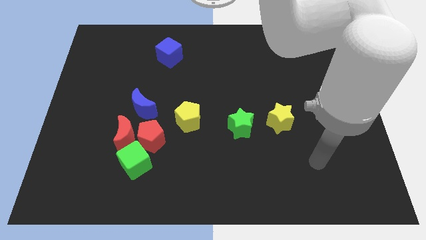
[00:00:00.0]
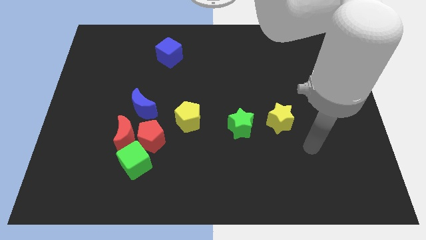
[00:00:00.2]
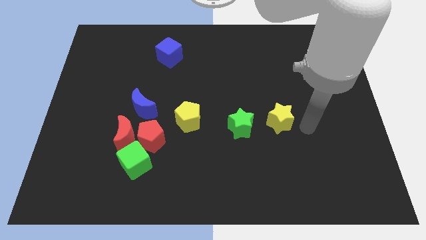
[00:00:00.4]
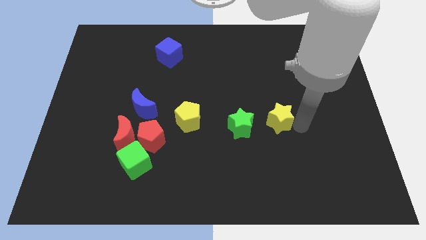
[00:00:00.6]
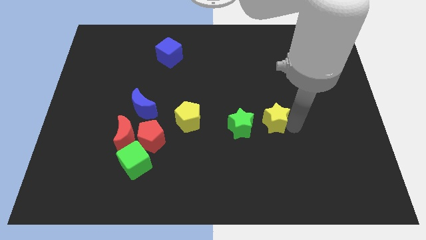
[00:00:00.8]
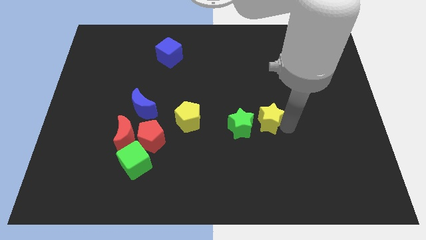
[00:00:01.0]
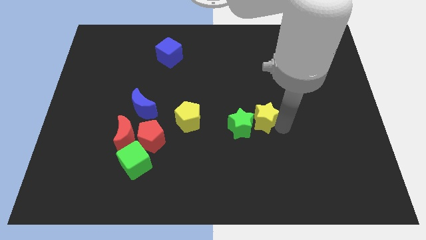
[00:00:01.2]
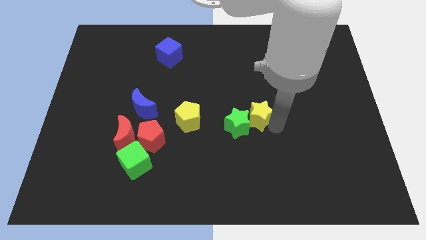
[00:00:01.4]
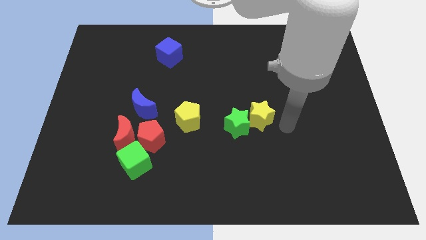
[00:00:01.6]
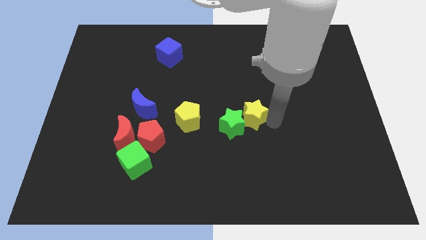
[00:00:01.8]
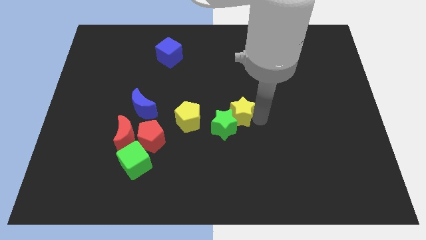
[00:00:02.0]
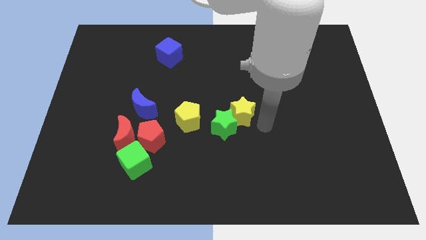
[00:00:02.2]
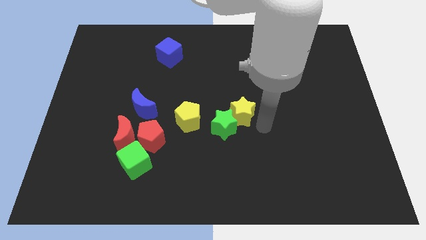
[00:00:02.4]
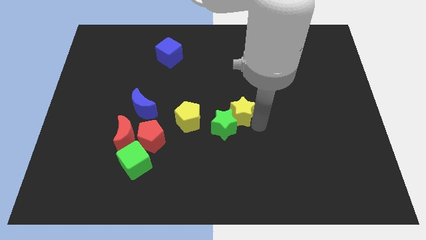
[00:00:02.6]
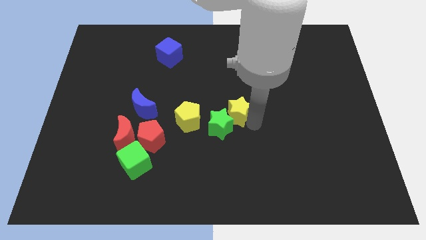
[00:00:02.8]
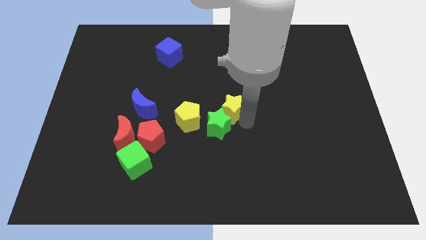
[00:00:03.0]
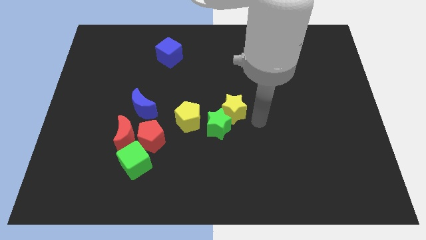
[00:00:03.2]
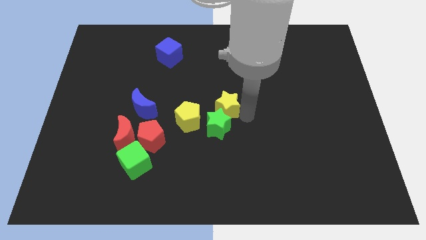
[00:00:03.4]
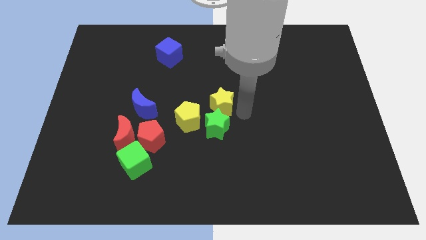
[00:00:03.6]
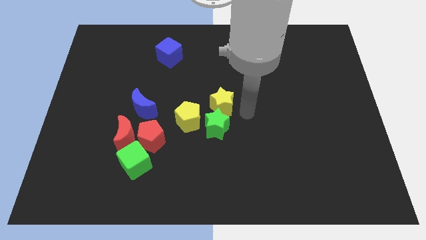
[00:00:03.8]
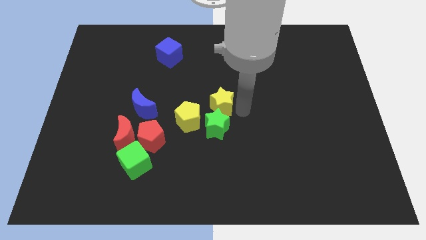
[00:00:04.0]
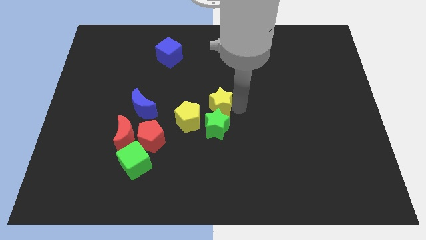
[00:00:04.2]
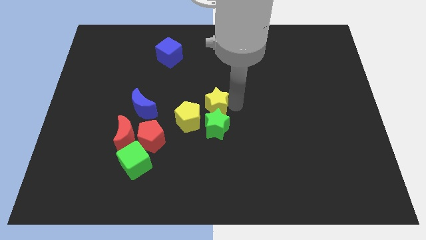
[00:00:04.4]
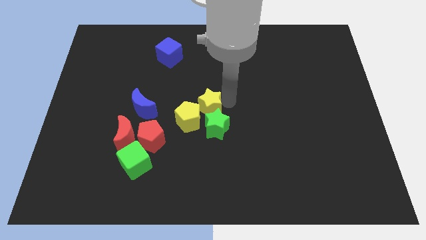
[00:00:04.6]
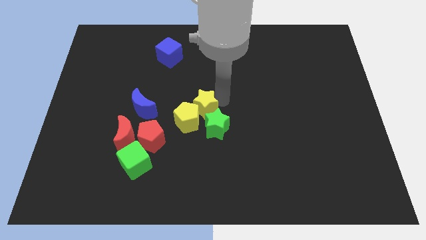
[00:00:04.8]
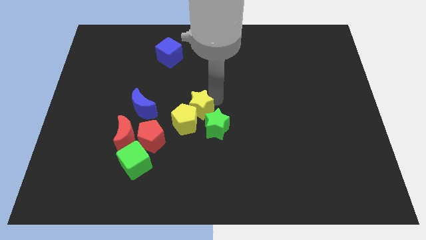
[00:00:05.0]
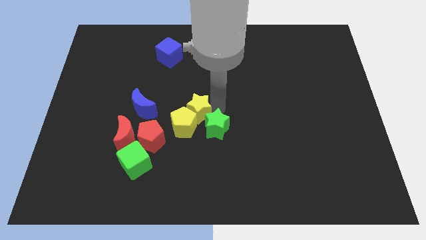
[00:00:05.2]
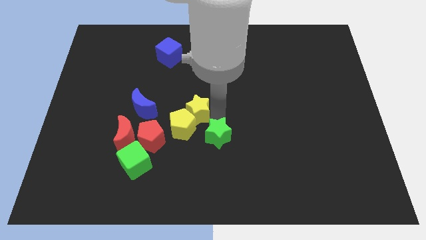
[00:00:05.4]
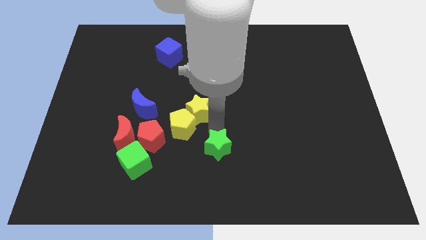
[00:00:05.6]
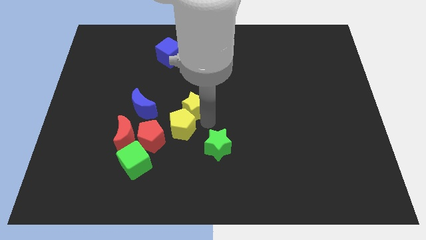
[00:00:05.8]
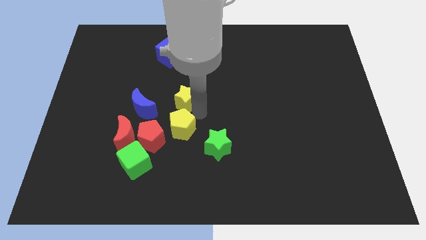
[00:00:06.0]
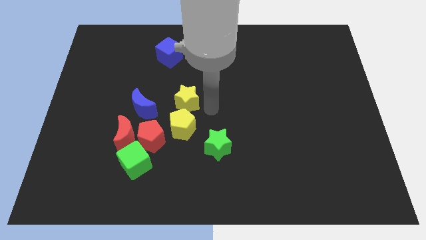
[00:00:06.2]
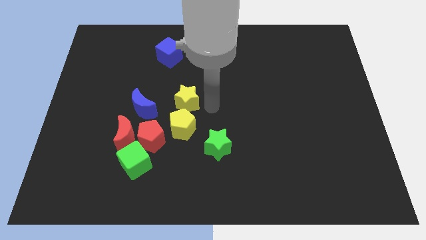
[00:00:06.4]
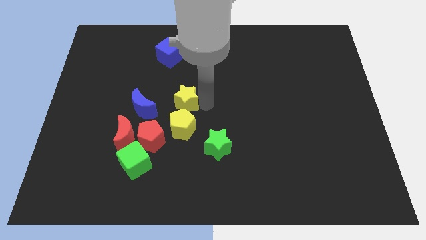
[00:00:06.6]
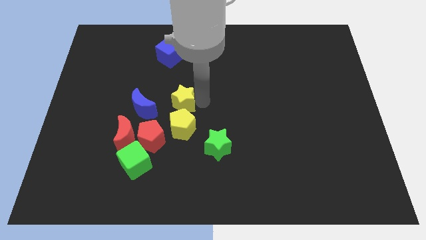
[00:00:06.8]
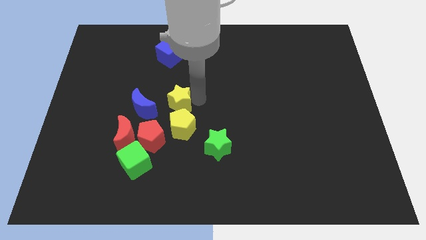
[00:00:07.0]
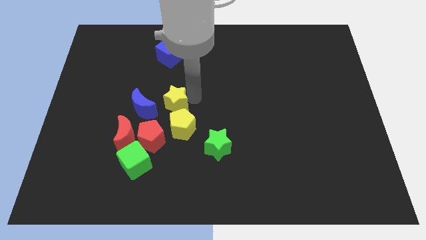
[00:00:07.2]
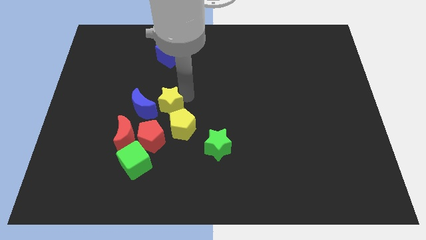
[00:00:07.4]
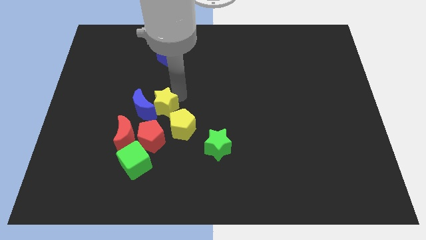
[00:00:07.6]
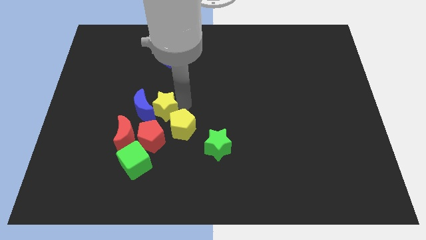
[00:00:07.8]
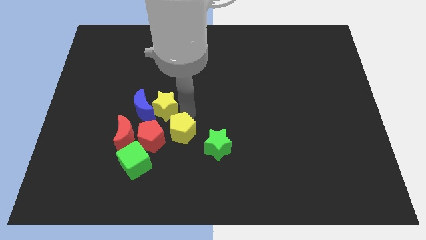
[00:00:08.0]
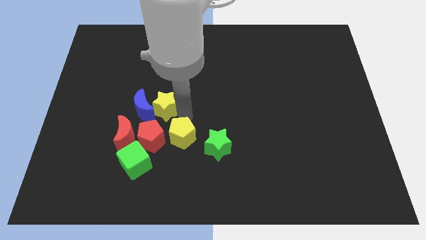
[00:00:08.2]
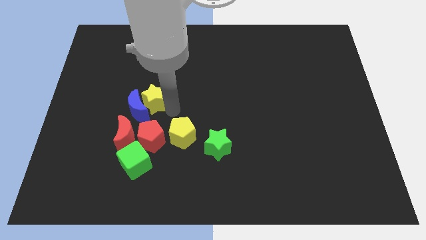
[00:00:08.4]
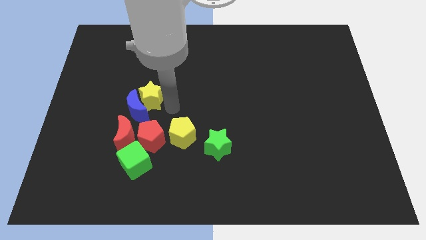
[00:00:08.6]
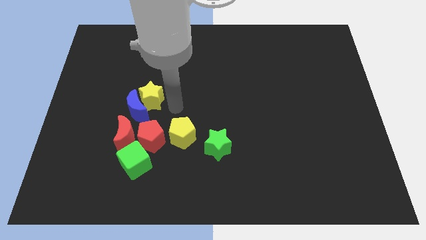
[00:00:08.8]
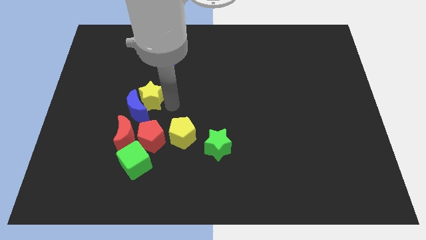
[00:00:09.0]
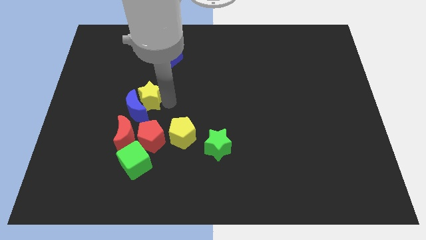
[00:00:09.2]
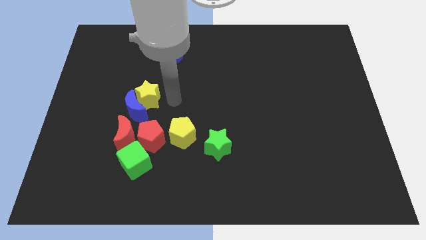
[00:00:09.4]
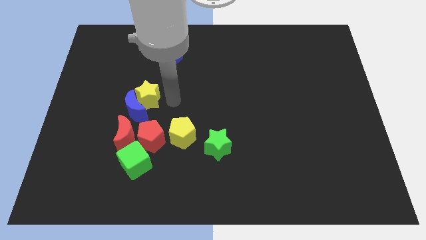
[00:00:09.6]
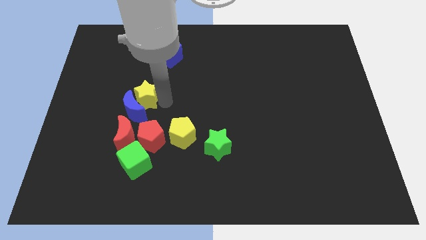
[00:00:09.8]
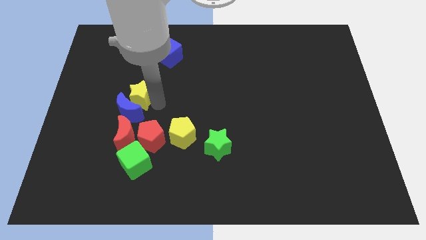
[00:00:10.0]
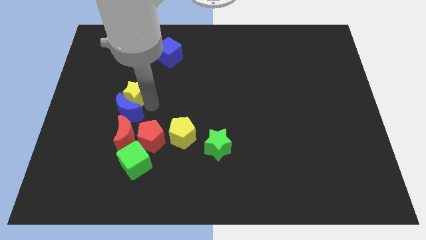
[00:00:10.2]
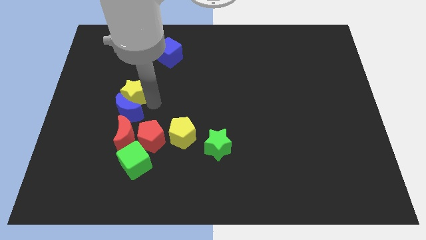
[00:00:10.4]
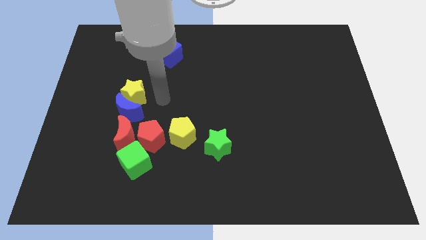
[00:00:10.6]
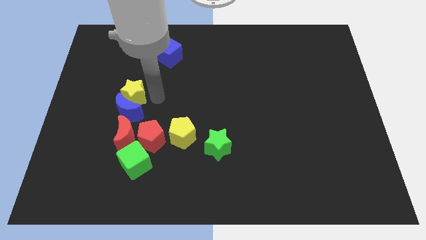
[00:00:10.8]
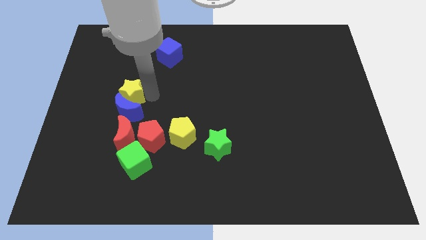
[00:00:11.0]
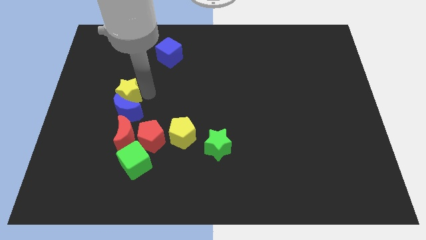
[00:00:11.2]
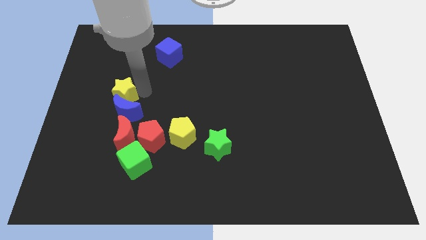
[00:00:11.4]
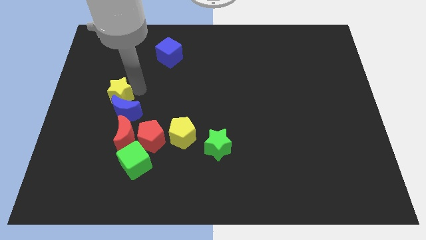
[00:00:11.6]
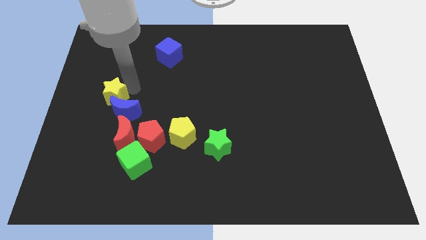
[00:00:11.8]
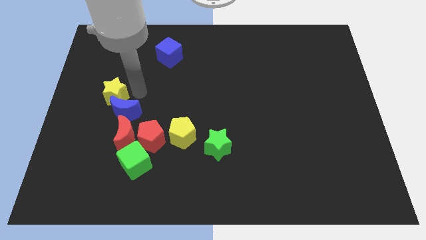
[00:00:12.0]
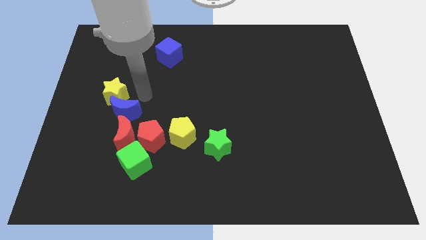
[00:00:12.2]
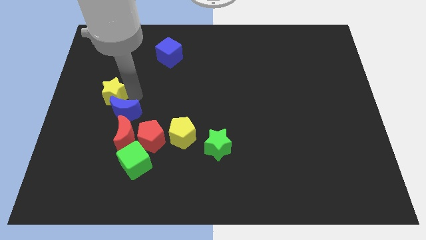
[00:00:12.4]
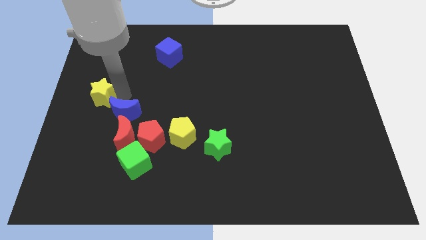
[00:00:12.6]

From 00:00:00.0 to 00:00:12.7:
push the yellow star to the left side of the board
